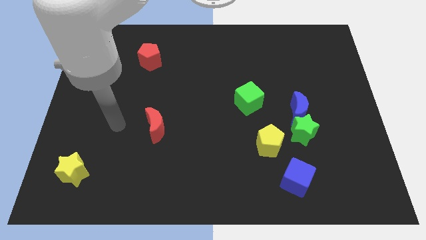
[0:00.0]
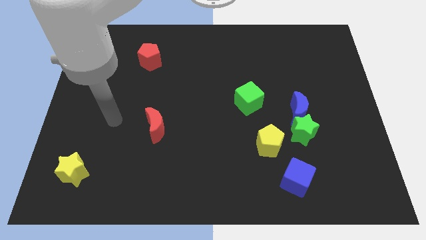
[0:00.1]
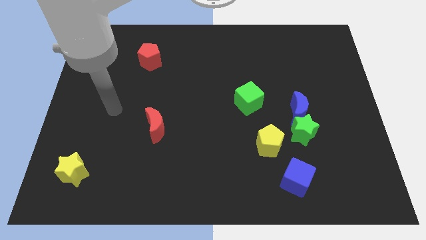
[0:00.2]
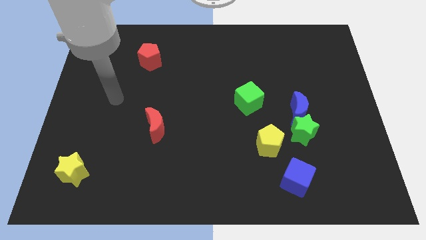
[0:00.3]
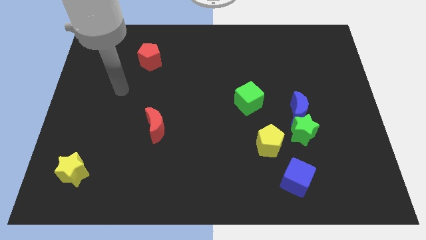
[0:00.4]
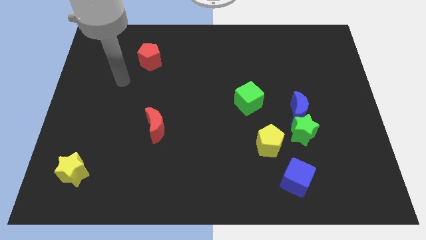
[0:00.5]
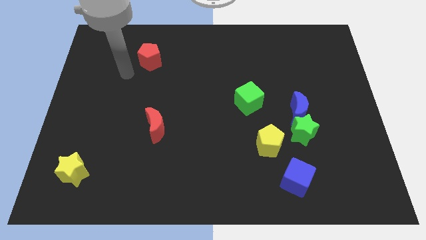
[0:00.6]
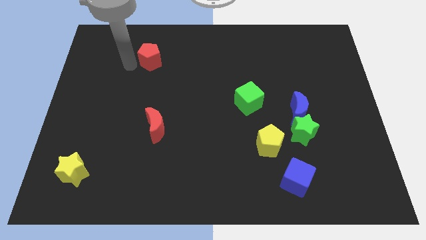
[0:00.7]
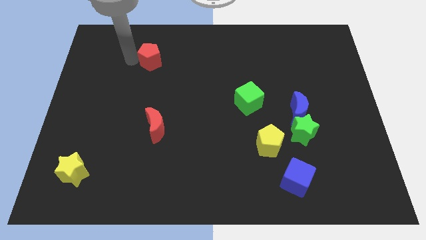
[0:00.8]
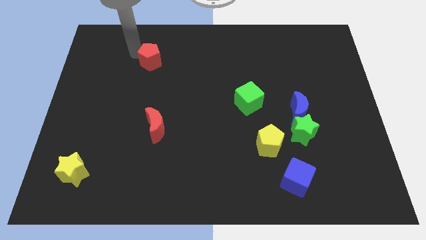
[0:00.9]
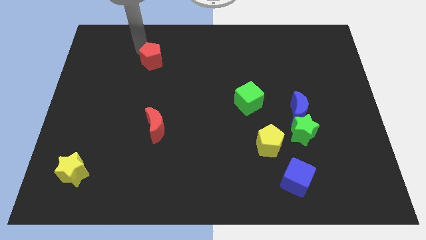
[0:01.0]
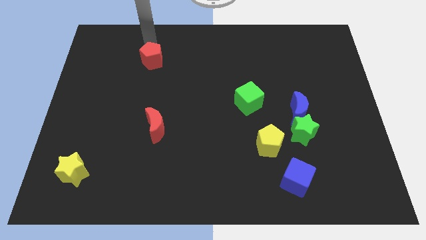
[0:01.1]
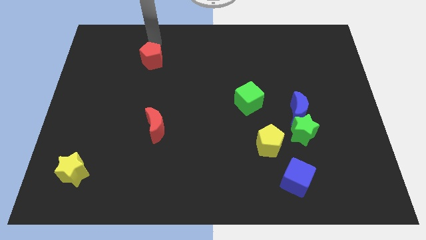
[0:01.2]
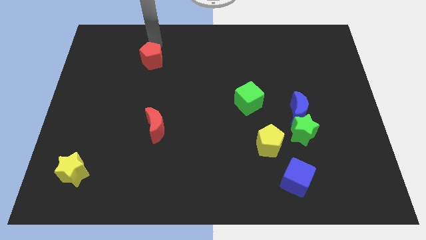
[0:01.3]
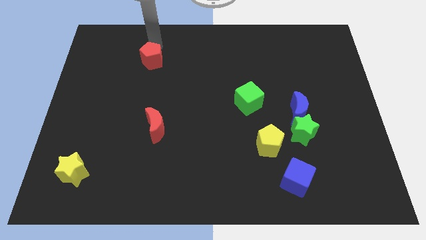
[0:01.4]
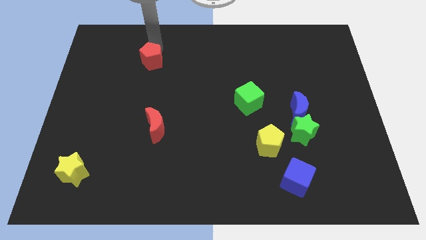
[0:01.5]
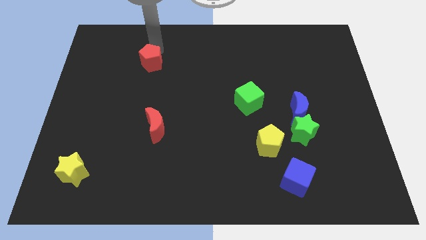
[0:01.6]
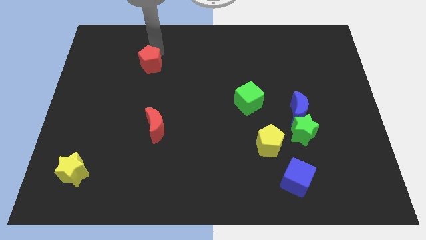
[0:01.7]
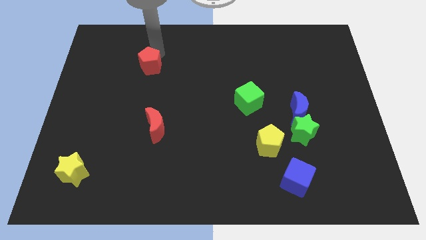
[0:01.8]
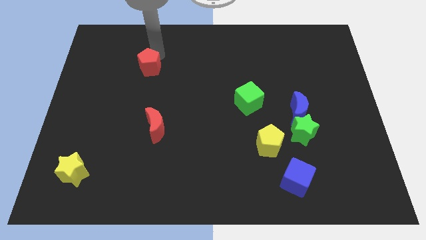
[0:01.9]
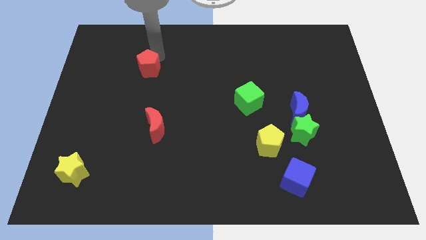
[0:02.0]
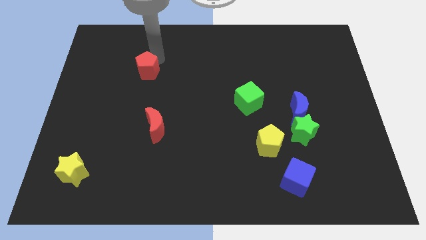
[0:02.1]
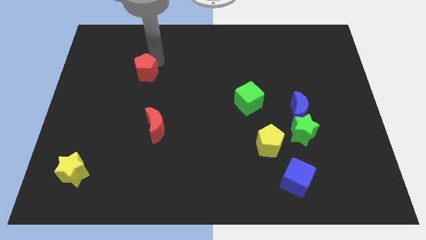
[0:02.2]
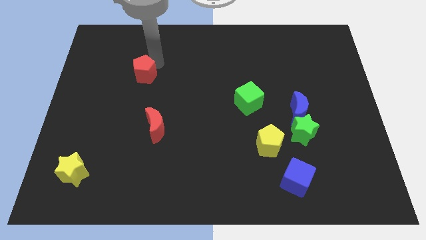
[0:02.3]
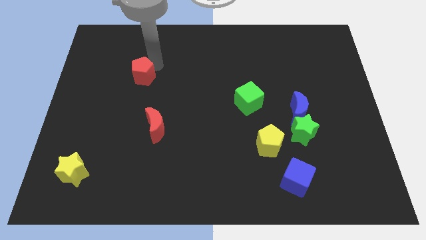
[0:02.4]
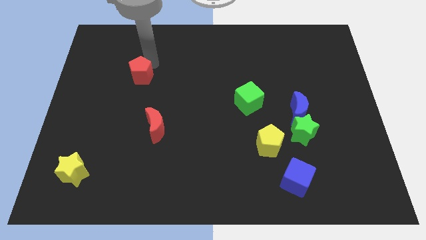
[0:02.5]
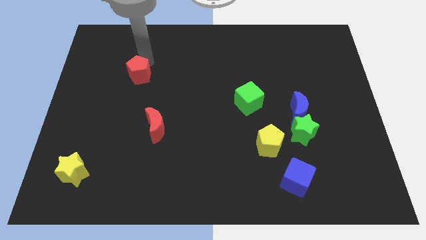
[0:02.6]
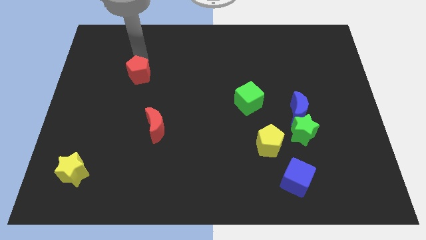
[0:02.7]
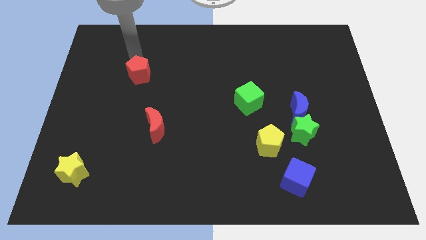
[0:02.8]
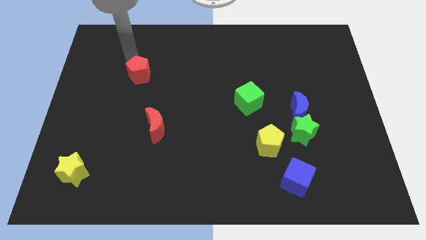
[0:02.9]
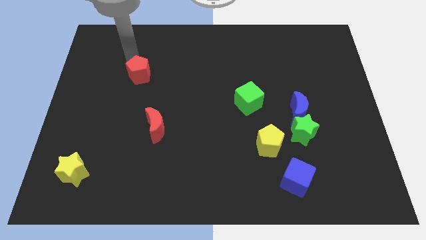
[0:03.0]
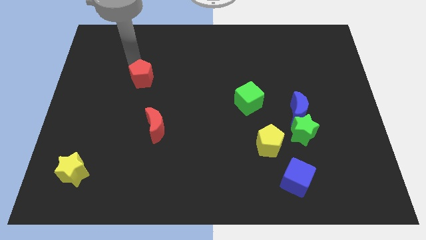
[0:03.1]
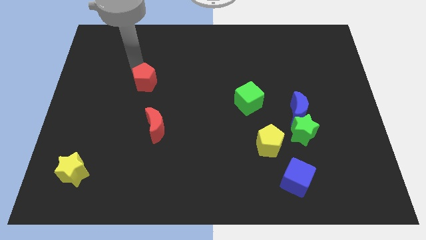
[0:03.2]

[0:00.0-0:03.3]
slightly move the red pentagon downwards

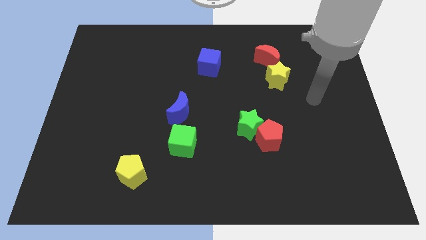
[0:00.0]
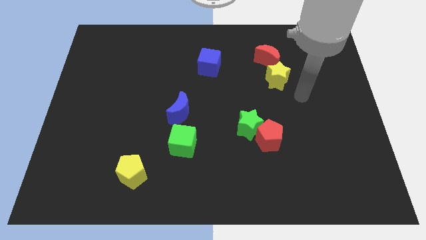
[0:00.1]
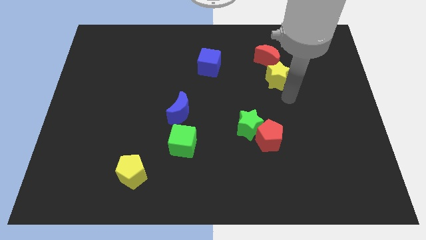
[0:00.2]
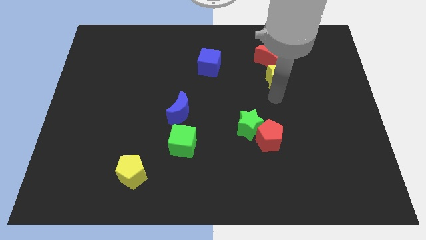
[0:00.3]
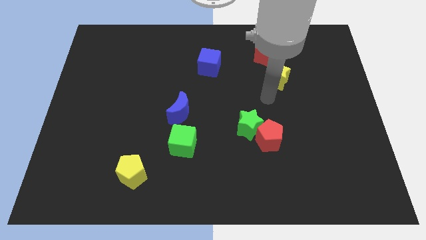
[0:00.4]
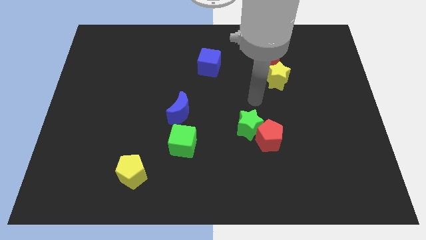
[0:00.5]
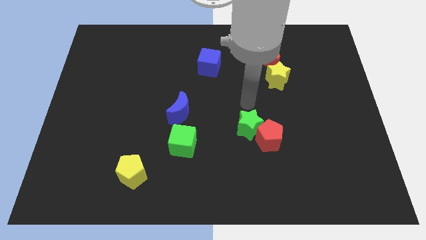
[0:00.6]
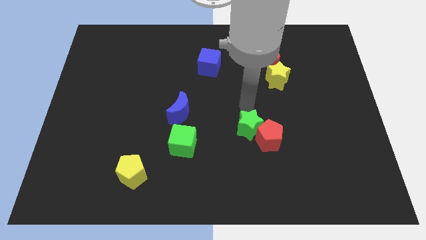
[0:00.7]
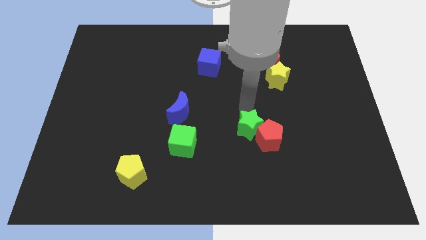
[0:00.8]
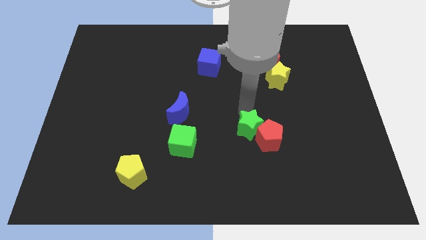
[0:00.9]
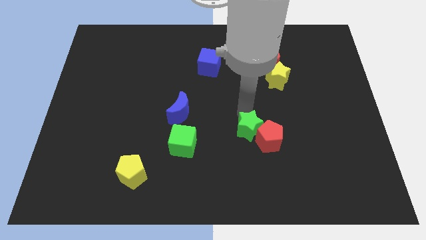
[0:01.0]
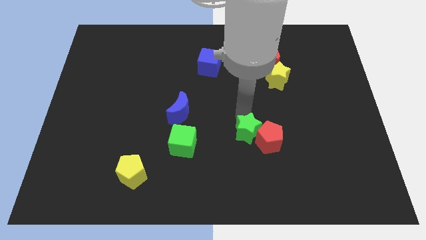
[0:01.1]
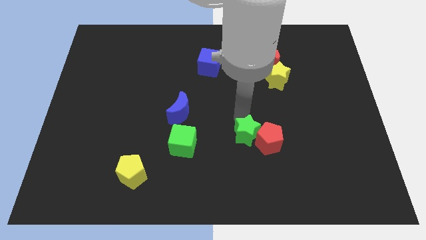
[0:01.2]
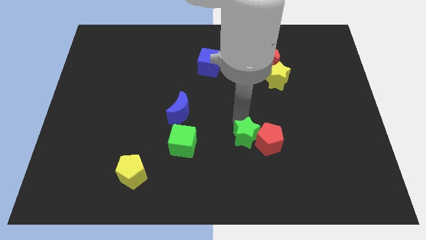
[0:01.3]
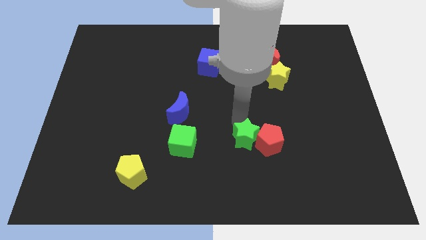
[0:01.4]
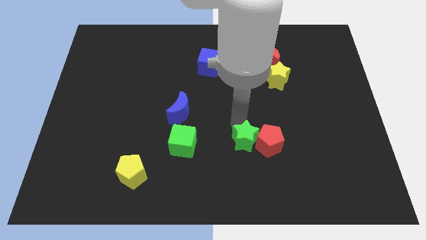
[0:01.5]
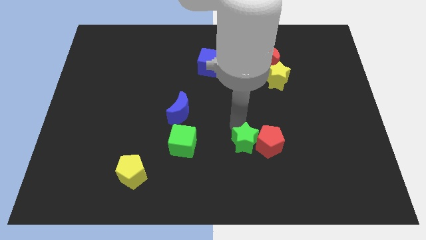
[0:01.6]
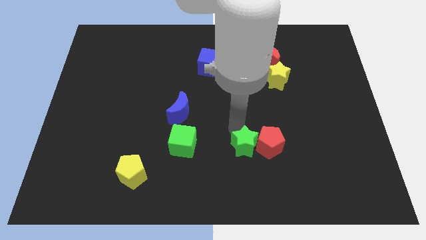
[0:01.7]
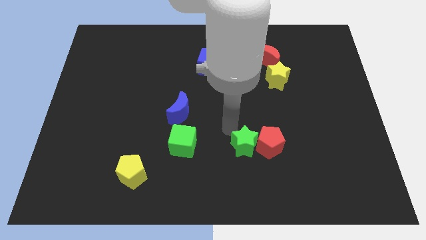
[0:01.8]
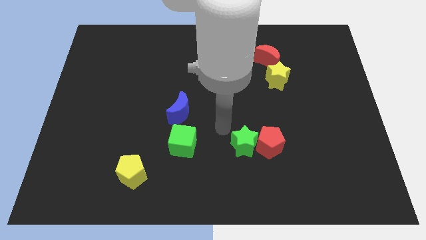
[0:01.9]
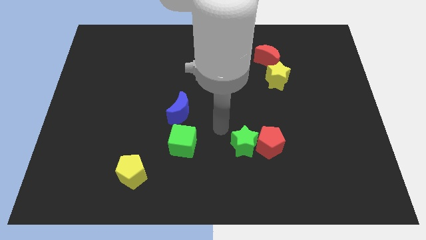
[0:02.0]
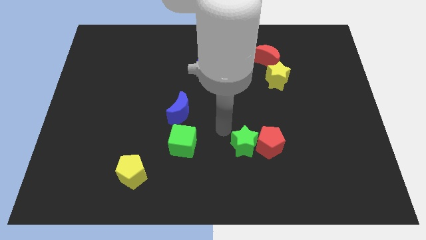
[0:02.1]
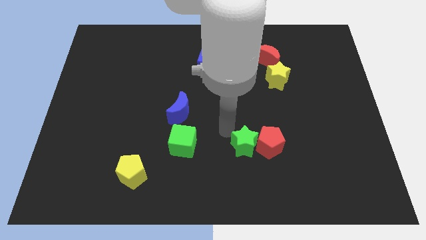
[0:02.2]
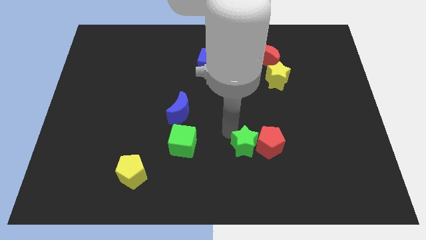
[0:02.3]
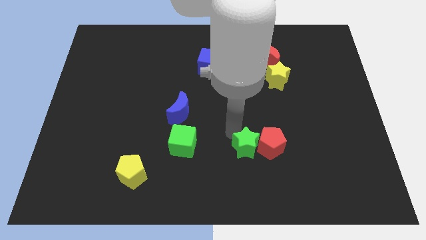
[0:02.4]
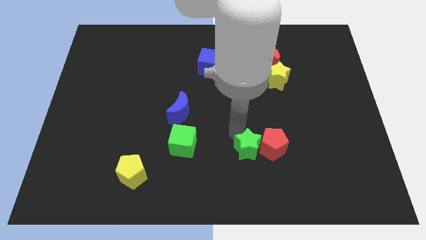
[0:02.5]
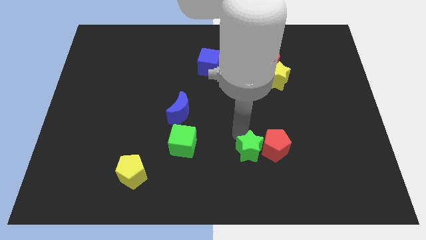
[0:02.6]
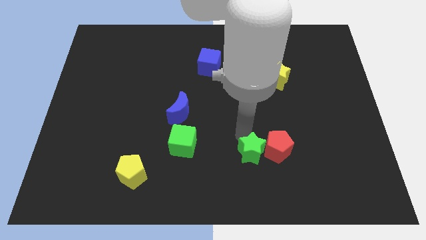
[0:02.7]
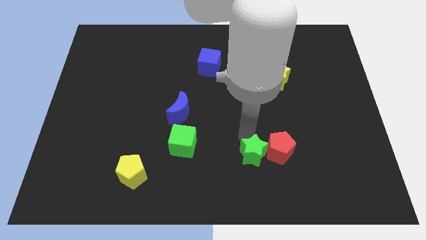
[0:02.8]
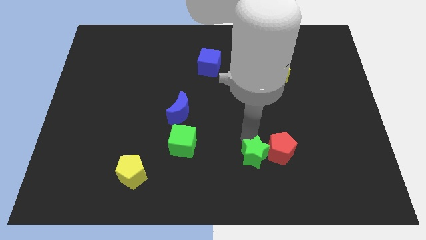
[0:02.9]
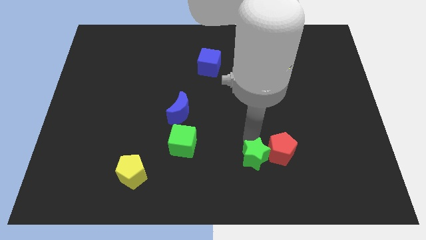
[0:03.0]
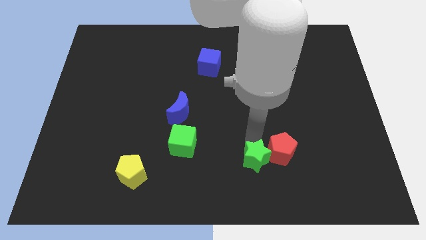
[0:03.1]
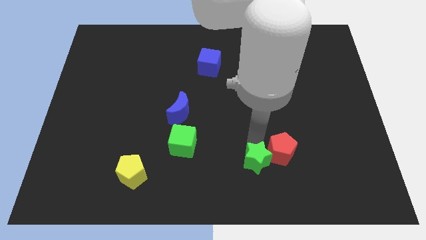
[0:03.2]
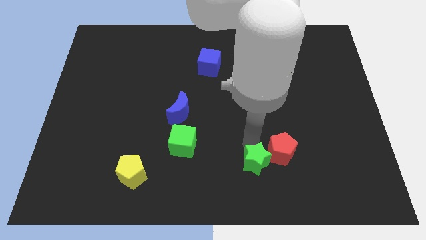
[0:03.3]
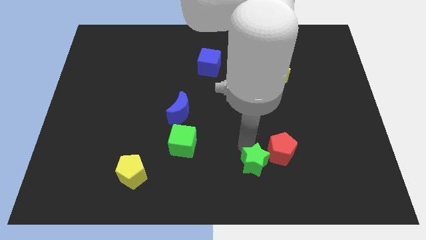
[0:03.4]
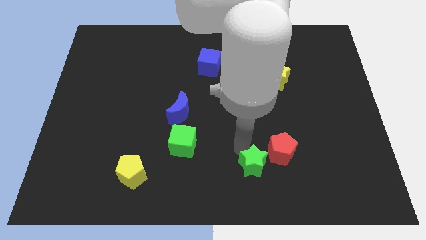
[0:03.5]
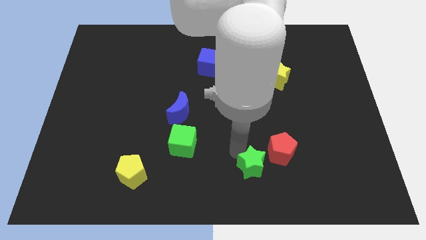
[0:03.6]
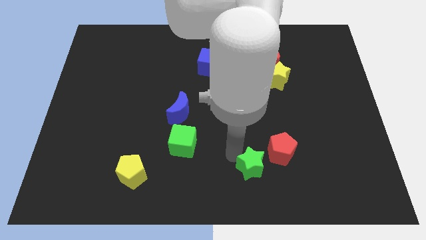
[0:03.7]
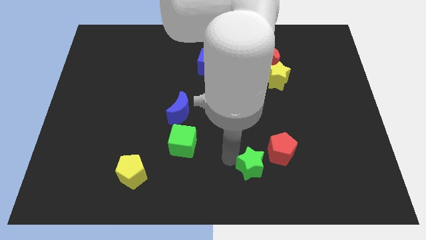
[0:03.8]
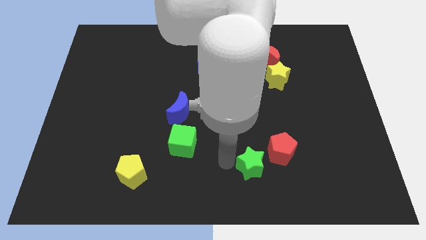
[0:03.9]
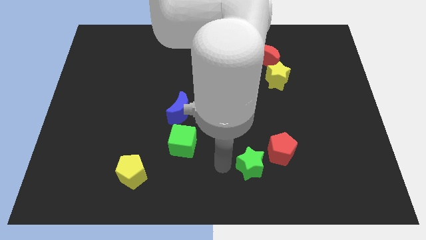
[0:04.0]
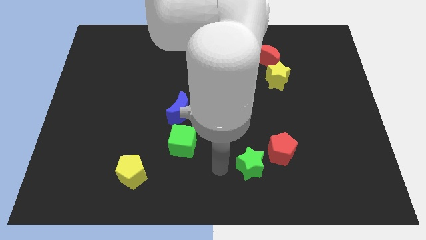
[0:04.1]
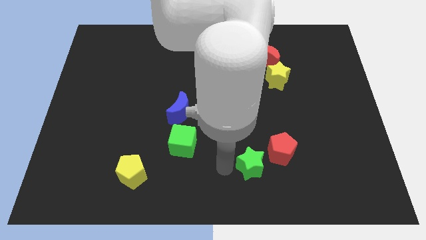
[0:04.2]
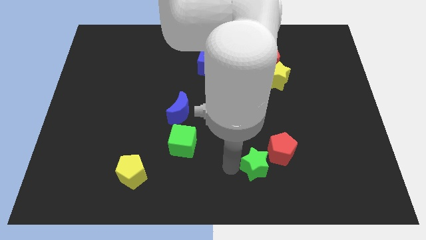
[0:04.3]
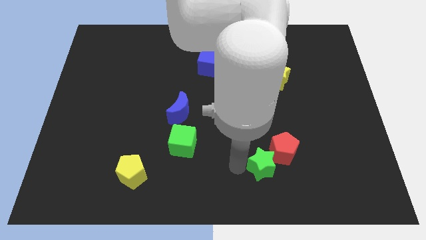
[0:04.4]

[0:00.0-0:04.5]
push the green star downwards and then to the right a little bit

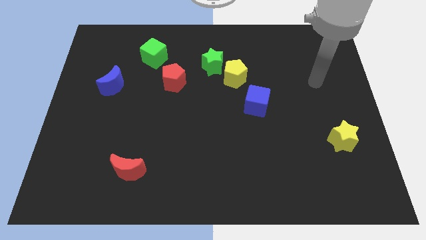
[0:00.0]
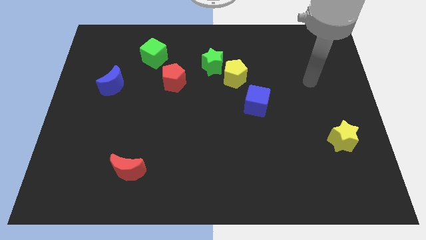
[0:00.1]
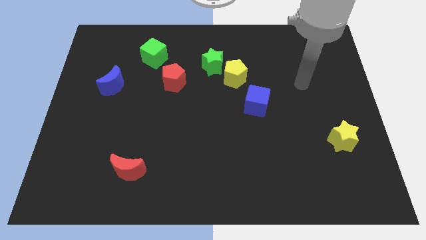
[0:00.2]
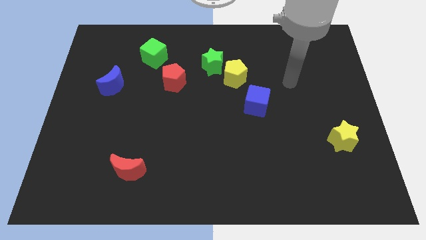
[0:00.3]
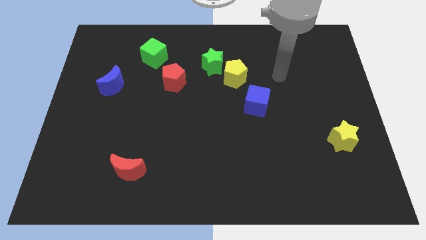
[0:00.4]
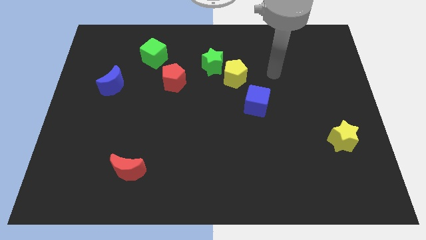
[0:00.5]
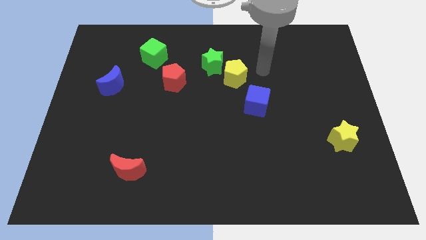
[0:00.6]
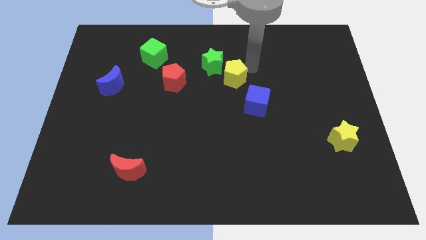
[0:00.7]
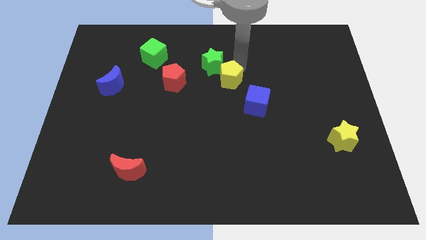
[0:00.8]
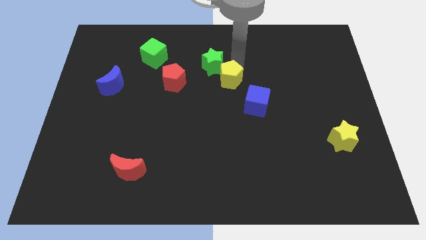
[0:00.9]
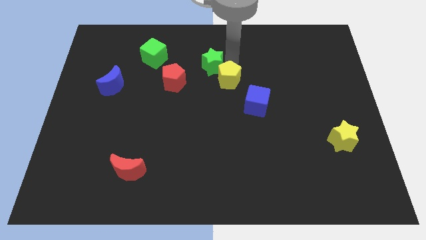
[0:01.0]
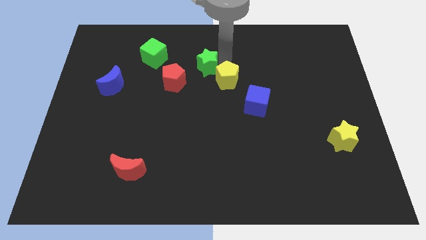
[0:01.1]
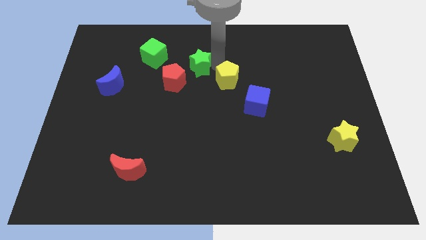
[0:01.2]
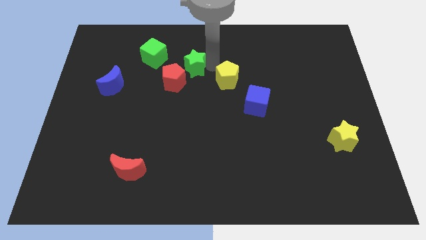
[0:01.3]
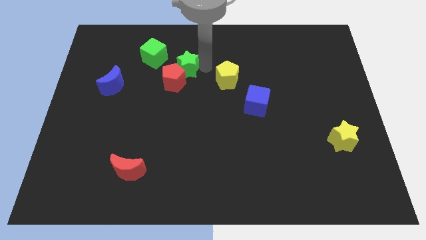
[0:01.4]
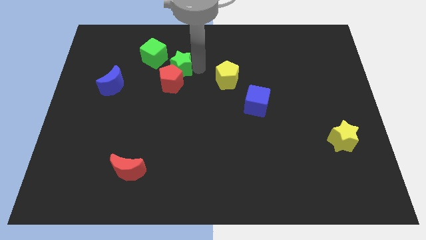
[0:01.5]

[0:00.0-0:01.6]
move the green star to the left a little
